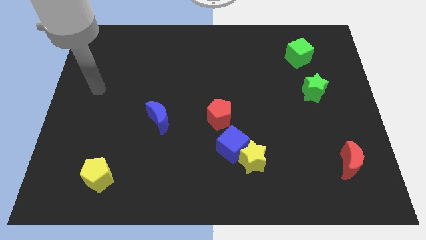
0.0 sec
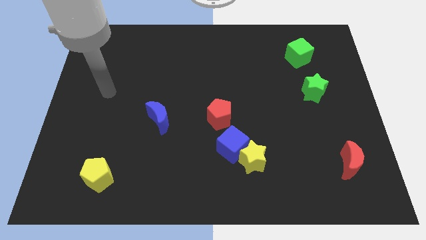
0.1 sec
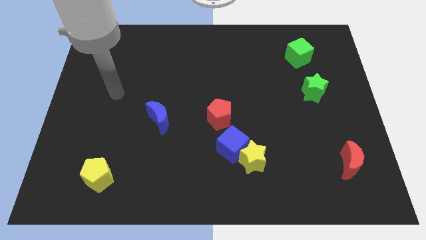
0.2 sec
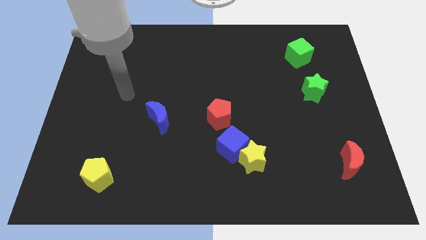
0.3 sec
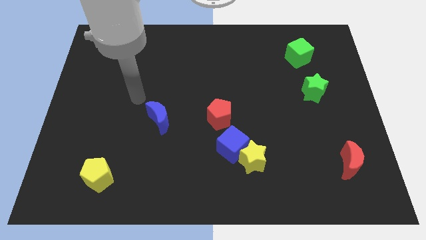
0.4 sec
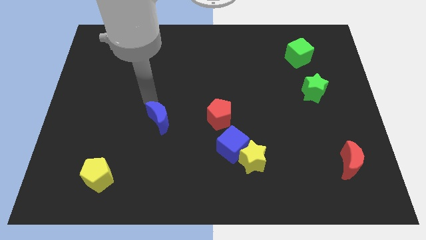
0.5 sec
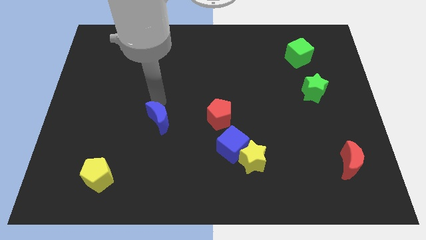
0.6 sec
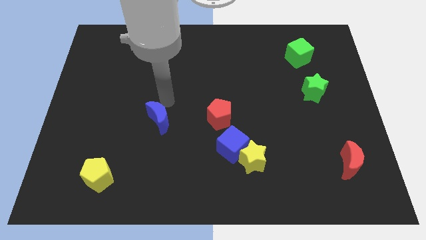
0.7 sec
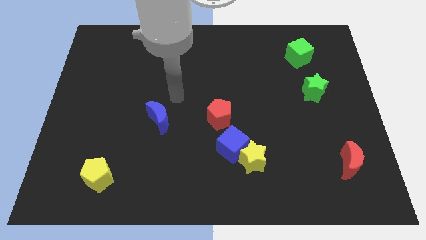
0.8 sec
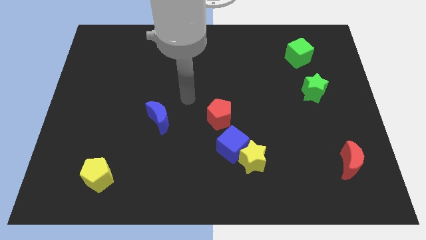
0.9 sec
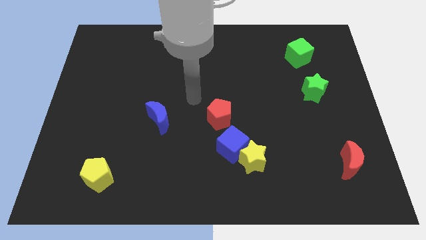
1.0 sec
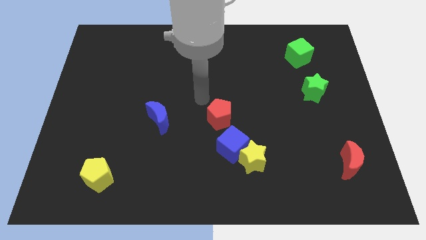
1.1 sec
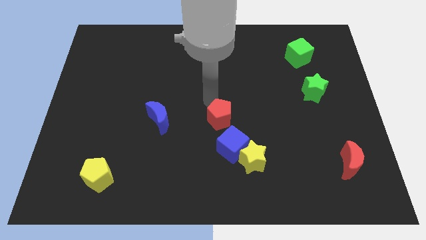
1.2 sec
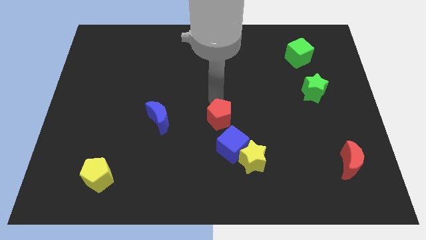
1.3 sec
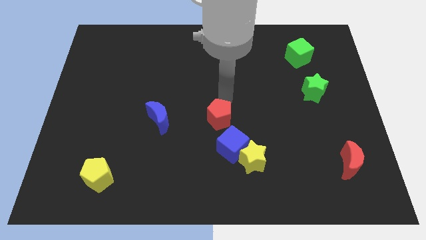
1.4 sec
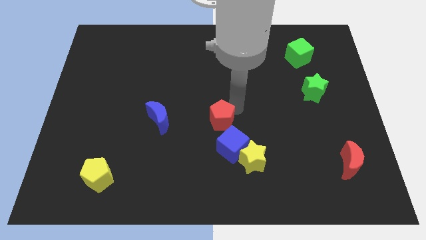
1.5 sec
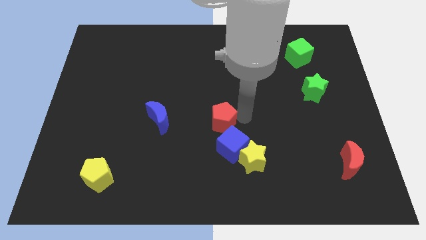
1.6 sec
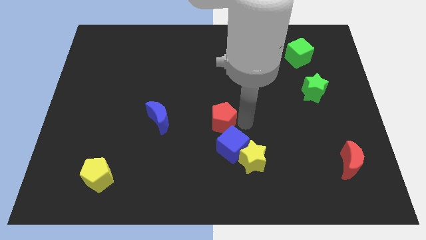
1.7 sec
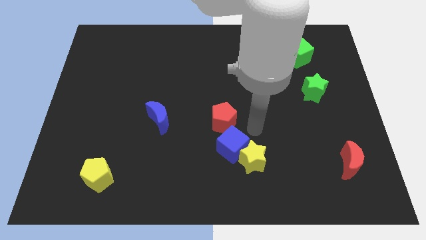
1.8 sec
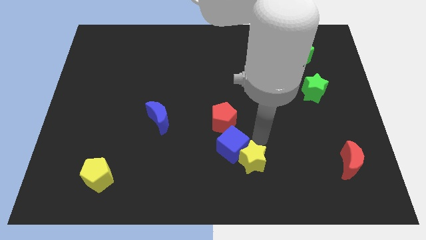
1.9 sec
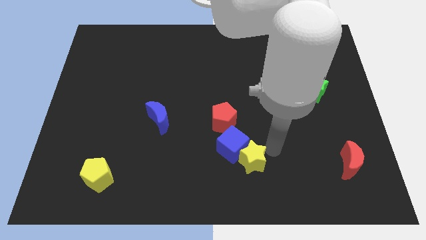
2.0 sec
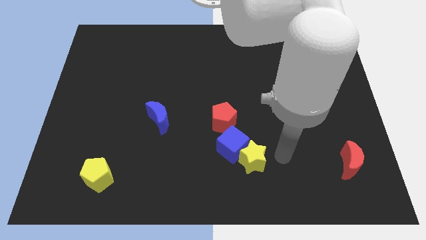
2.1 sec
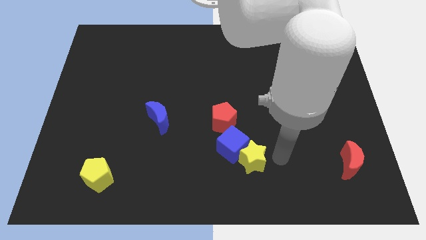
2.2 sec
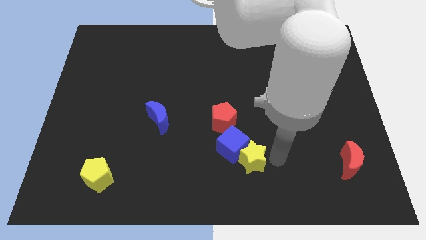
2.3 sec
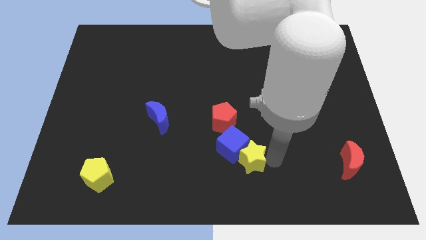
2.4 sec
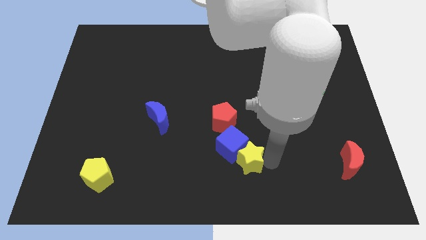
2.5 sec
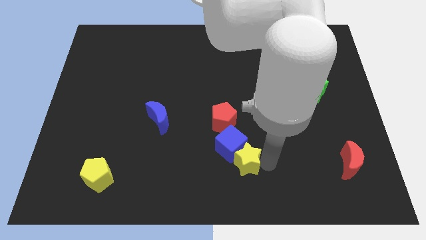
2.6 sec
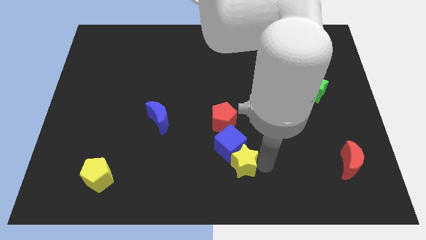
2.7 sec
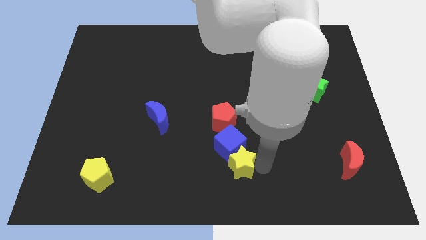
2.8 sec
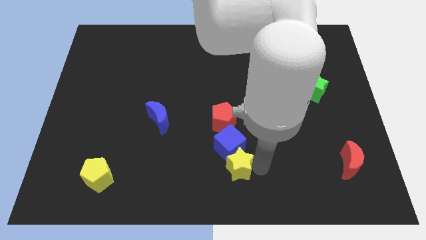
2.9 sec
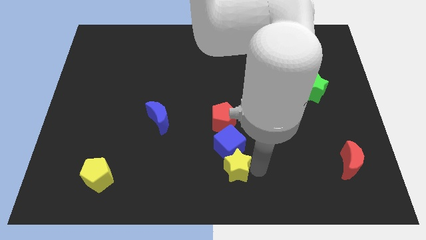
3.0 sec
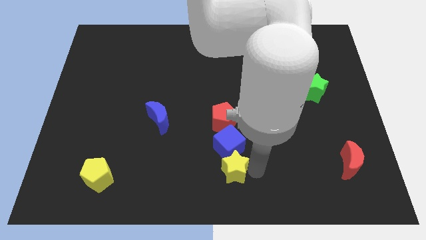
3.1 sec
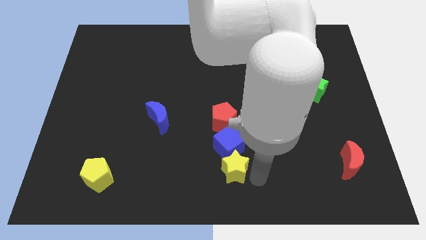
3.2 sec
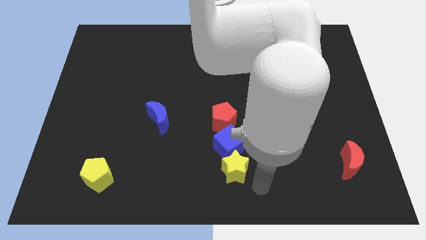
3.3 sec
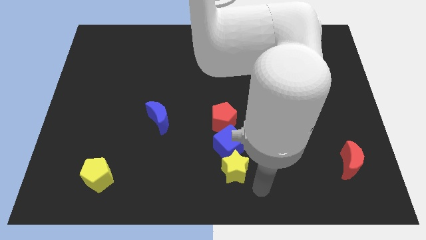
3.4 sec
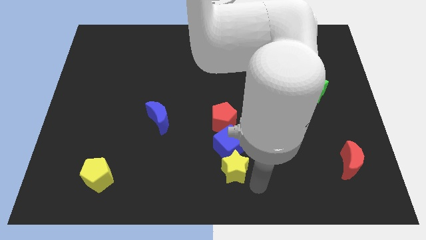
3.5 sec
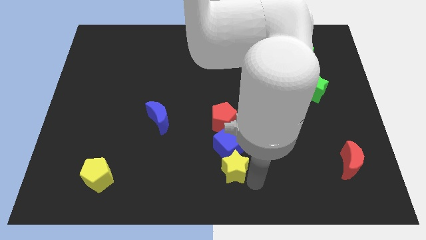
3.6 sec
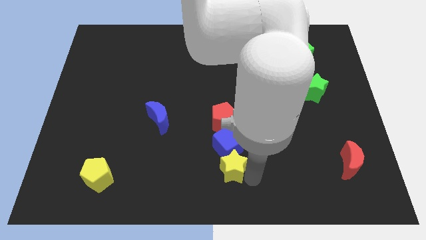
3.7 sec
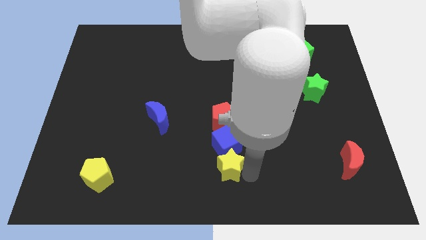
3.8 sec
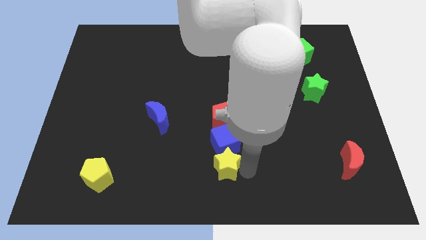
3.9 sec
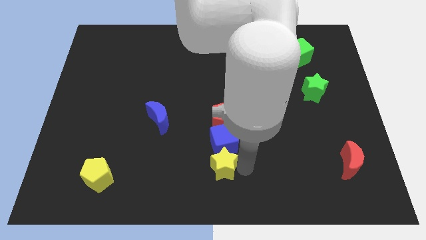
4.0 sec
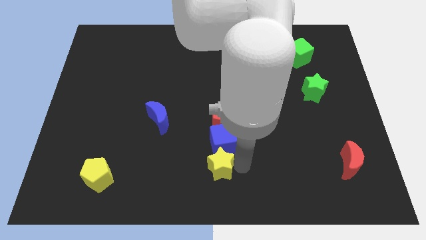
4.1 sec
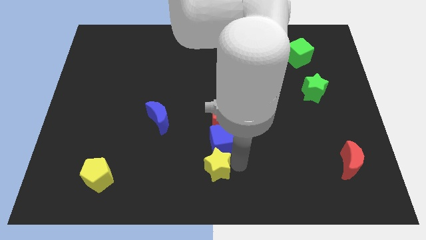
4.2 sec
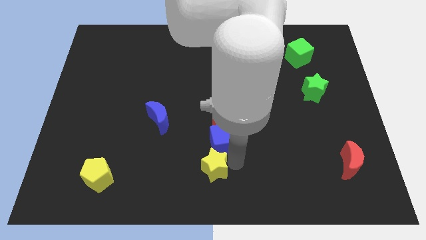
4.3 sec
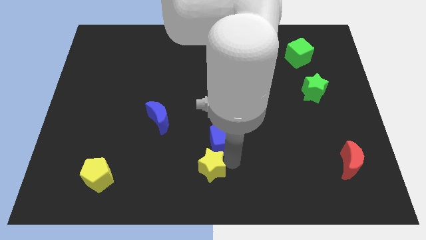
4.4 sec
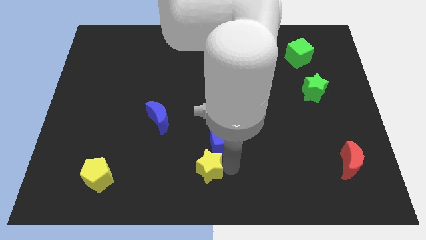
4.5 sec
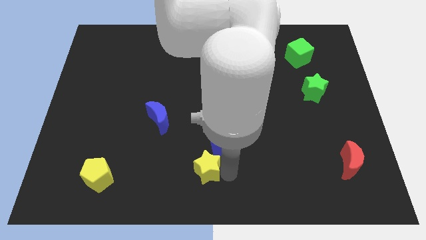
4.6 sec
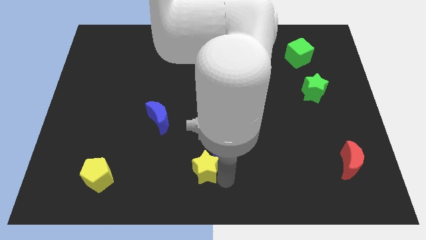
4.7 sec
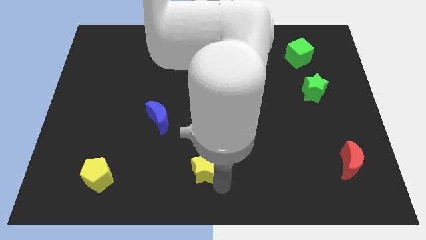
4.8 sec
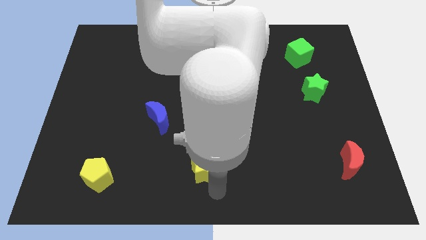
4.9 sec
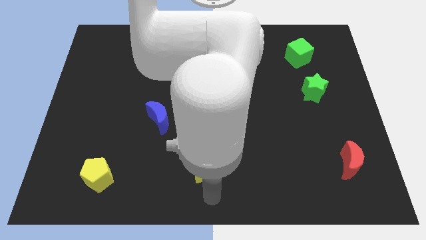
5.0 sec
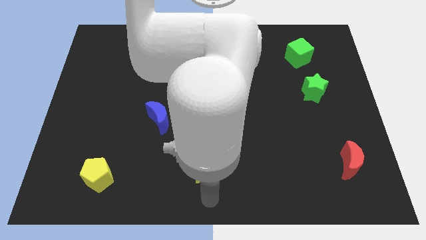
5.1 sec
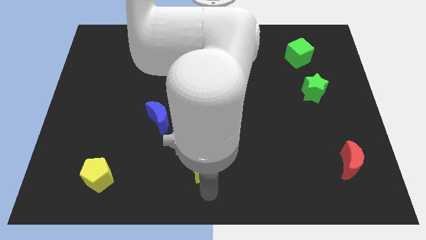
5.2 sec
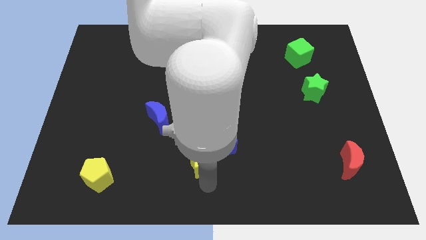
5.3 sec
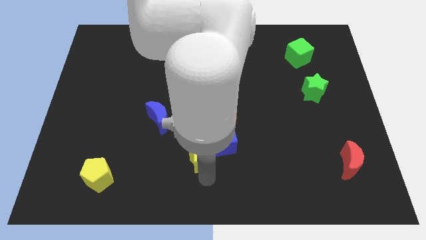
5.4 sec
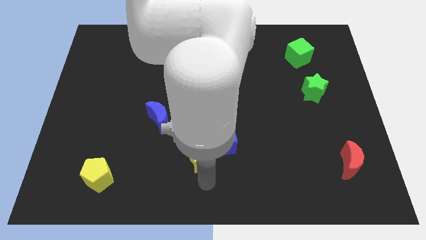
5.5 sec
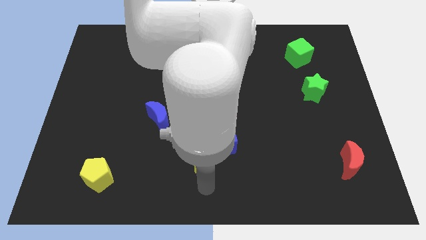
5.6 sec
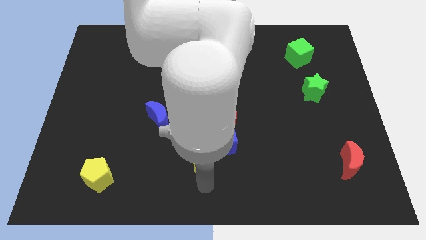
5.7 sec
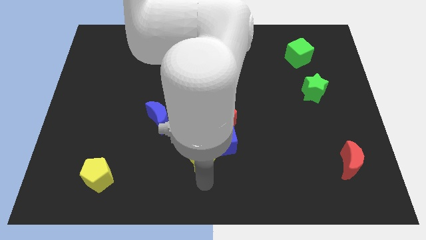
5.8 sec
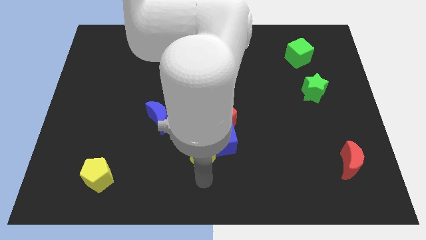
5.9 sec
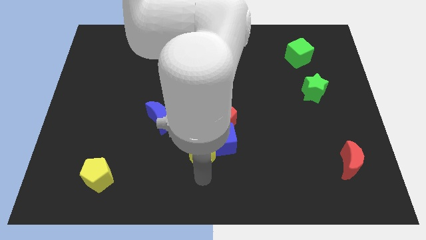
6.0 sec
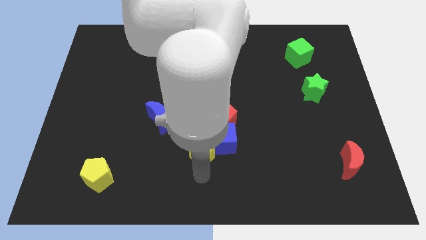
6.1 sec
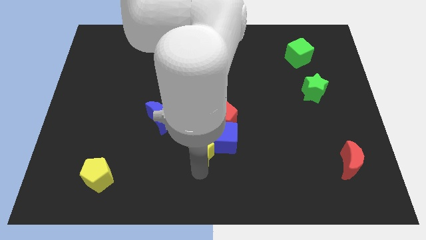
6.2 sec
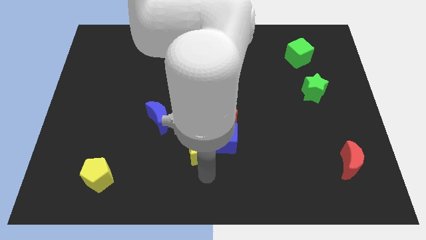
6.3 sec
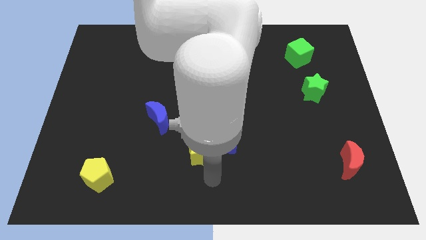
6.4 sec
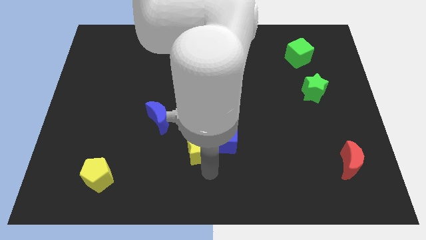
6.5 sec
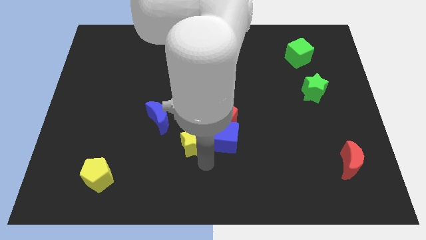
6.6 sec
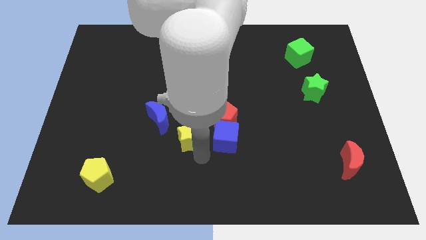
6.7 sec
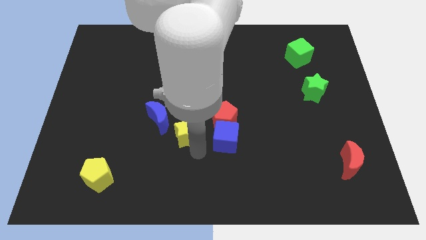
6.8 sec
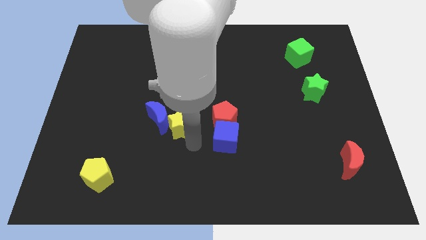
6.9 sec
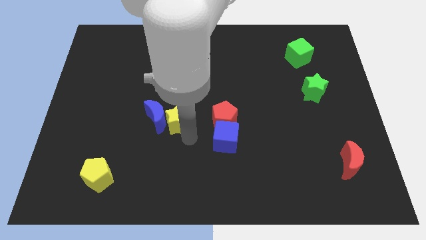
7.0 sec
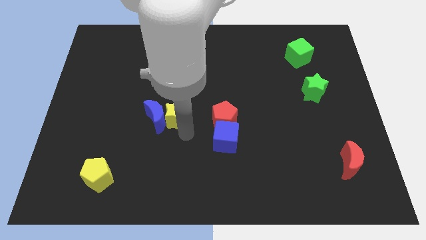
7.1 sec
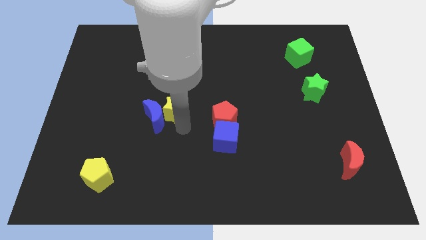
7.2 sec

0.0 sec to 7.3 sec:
move the yellow star diagonally upwards and to the left

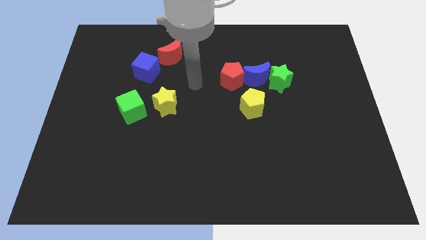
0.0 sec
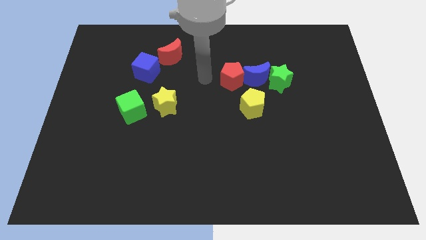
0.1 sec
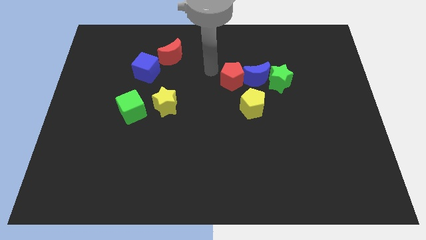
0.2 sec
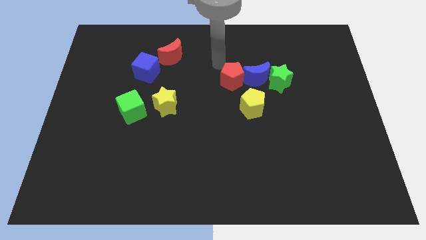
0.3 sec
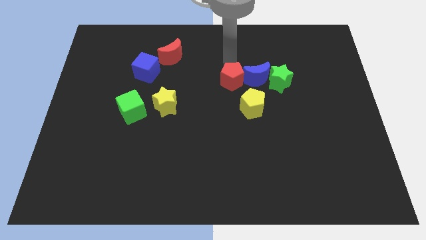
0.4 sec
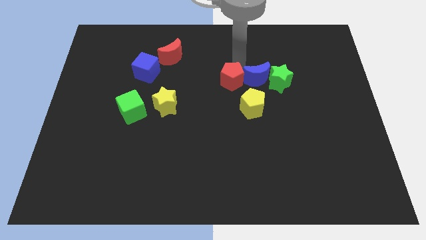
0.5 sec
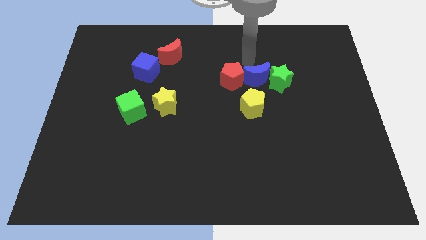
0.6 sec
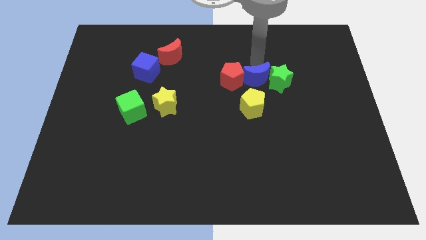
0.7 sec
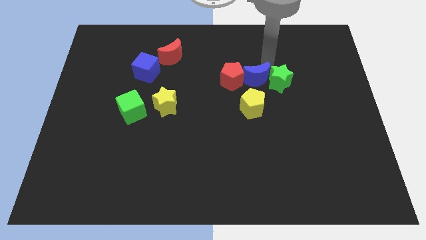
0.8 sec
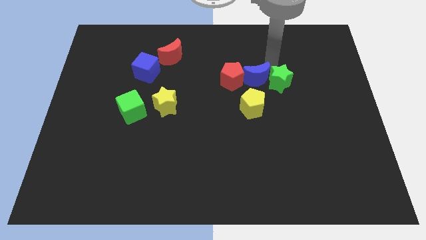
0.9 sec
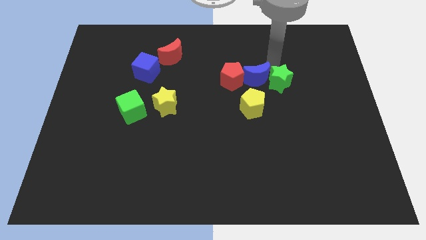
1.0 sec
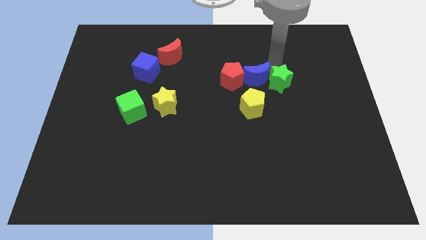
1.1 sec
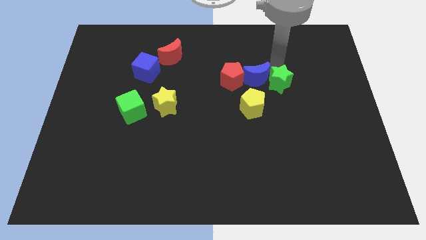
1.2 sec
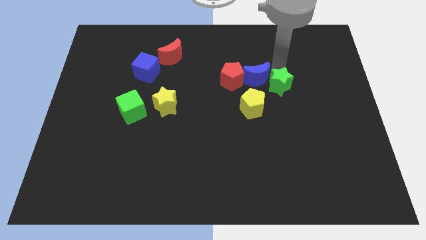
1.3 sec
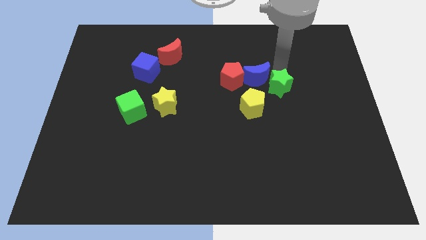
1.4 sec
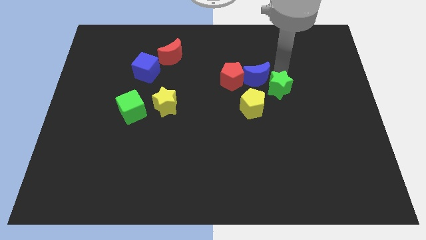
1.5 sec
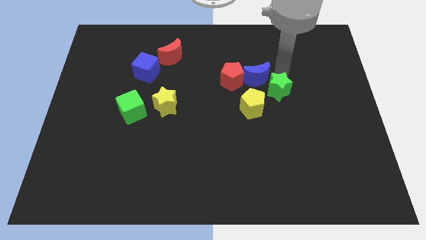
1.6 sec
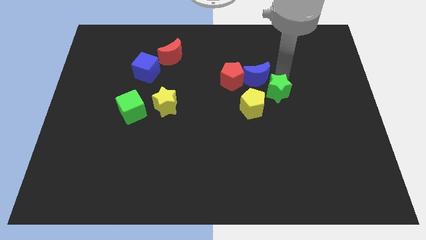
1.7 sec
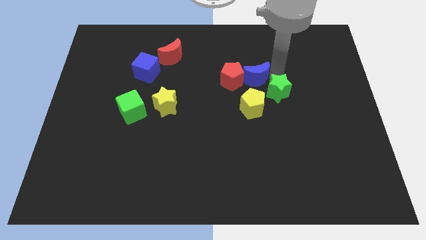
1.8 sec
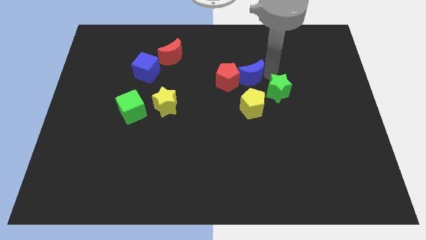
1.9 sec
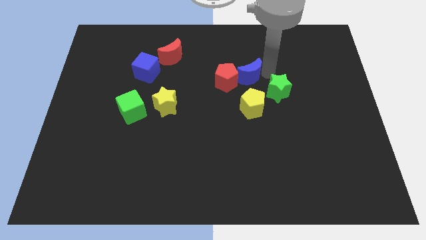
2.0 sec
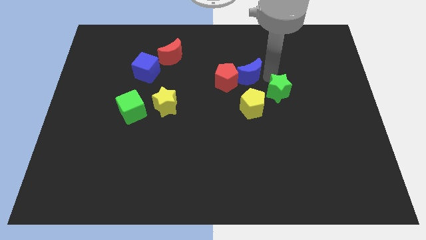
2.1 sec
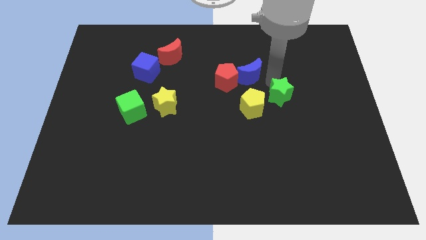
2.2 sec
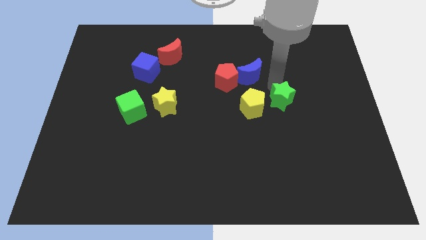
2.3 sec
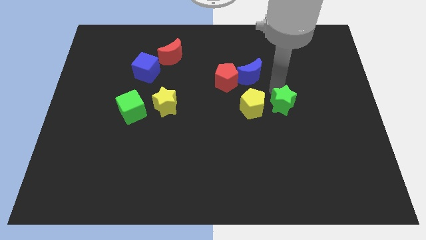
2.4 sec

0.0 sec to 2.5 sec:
slide the green star slightly down
